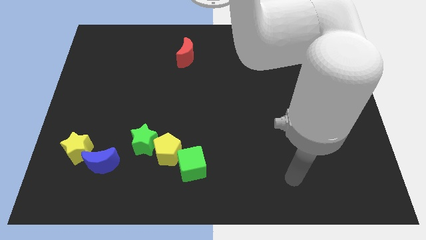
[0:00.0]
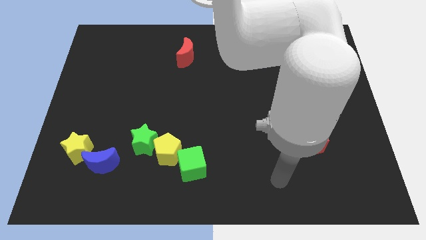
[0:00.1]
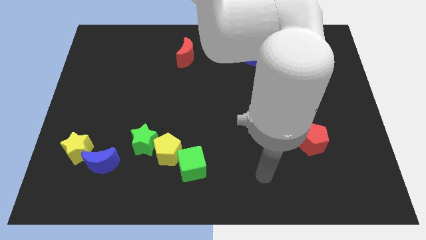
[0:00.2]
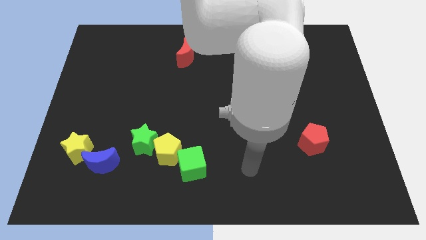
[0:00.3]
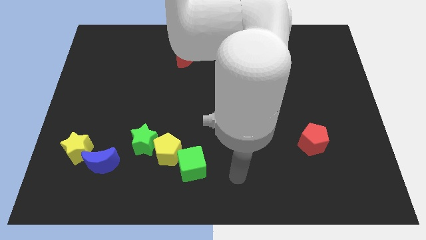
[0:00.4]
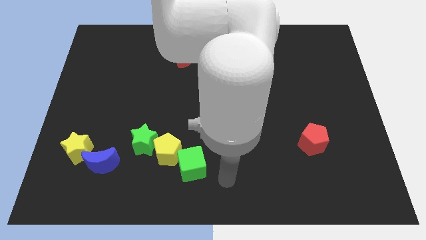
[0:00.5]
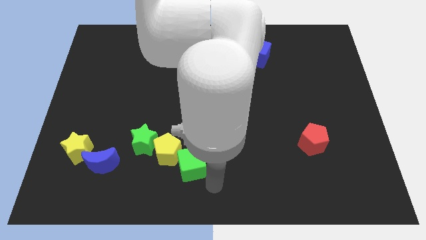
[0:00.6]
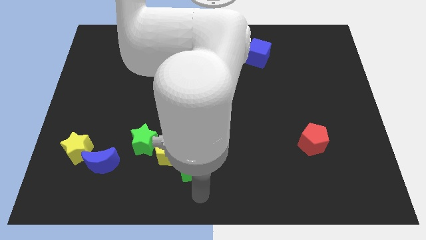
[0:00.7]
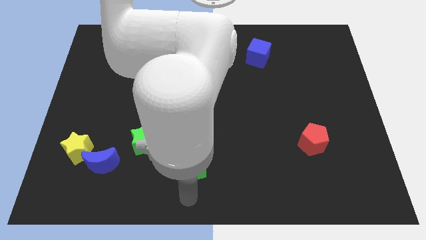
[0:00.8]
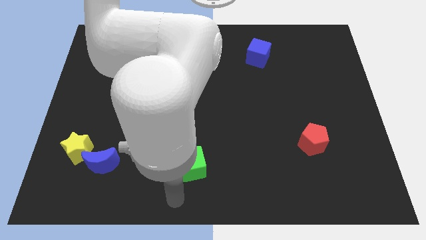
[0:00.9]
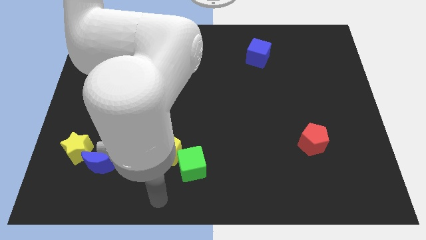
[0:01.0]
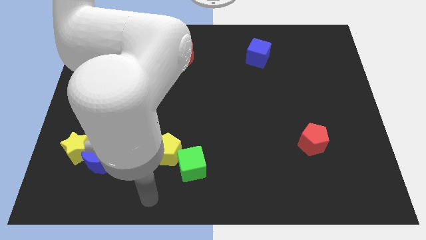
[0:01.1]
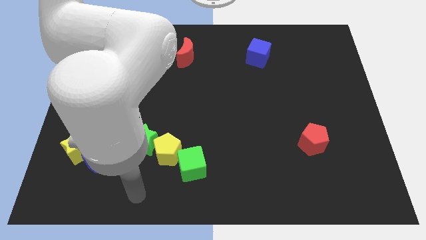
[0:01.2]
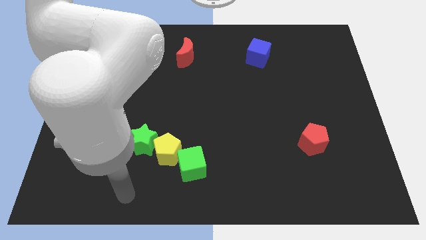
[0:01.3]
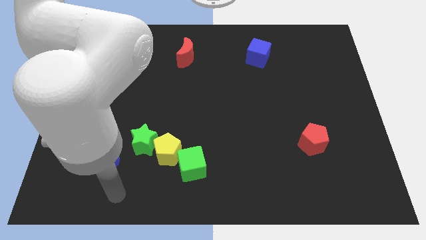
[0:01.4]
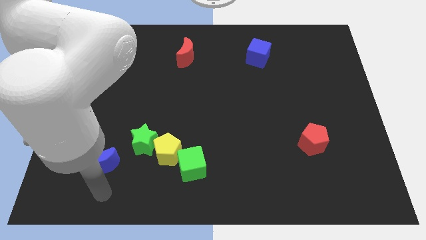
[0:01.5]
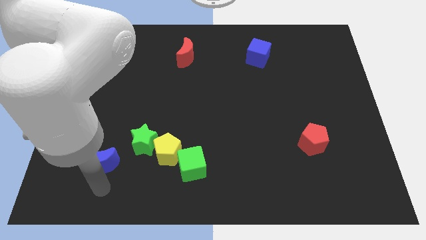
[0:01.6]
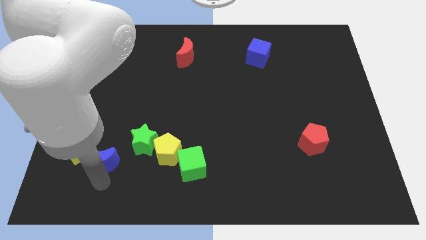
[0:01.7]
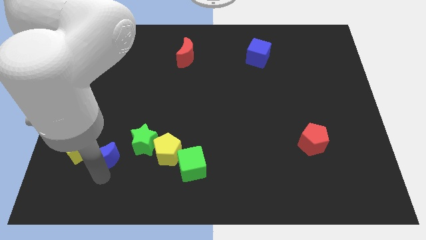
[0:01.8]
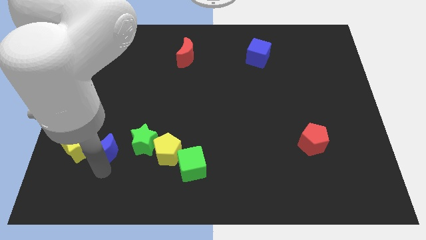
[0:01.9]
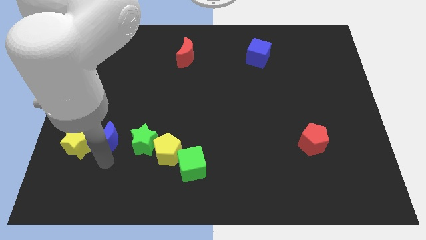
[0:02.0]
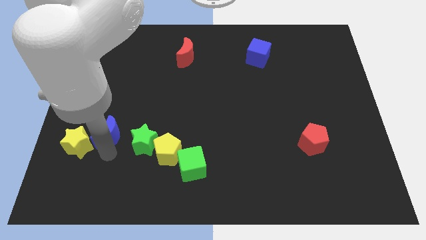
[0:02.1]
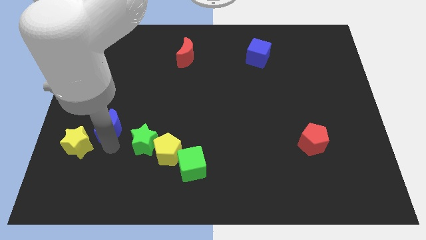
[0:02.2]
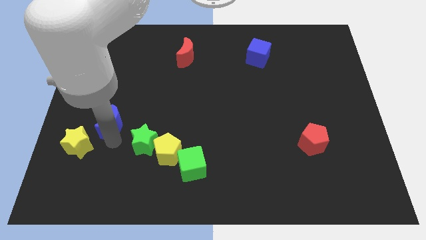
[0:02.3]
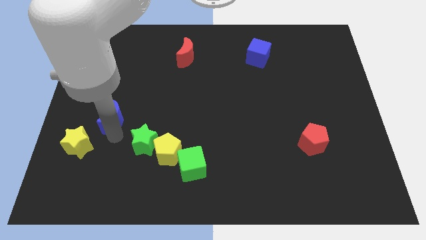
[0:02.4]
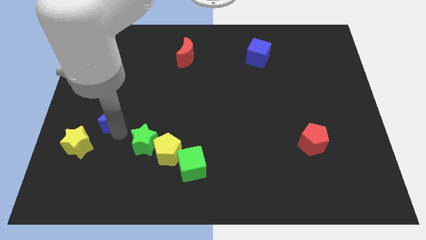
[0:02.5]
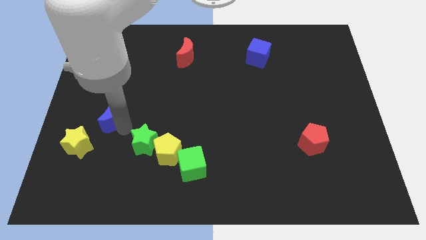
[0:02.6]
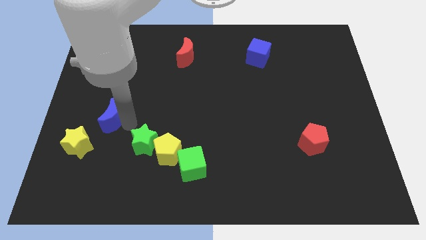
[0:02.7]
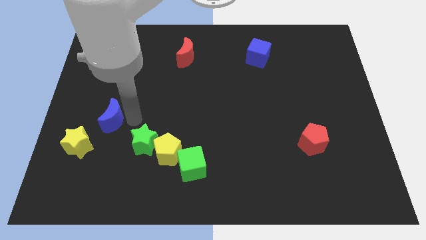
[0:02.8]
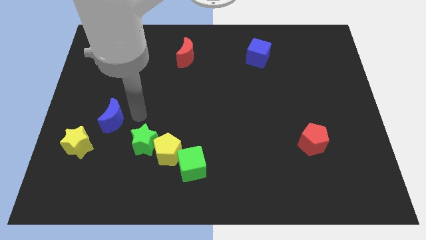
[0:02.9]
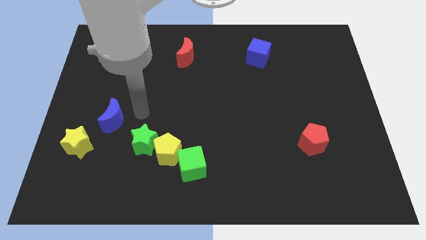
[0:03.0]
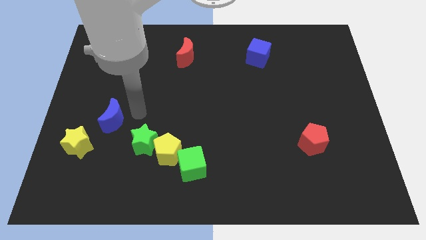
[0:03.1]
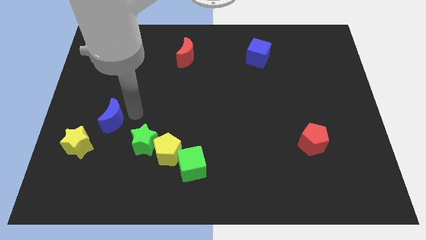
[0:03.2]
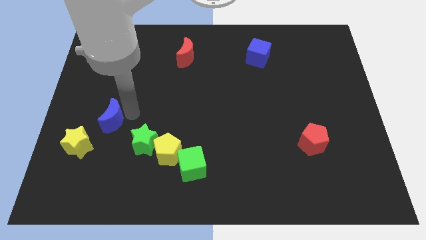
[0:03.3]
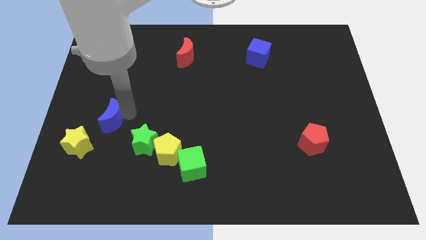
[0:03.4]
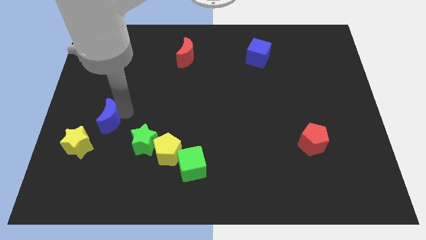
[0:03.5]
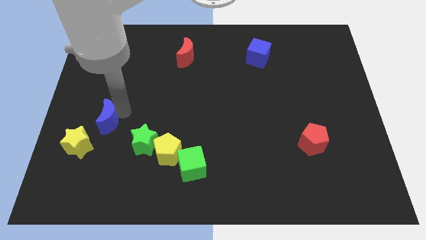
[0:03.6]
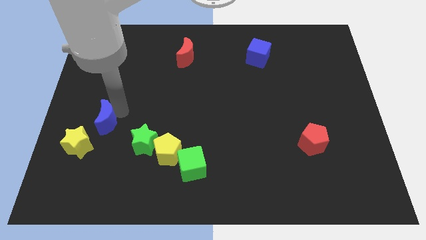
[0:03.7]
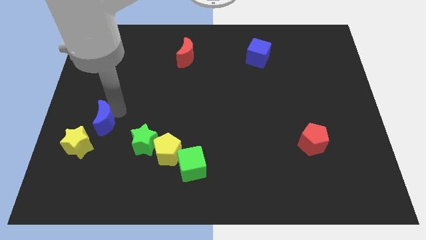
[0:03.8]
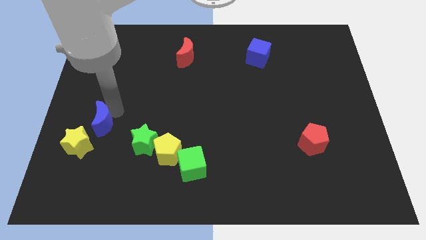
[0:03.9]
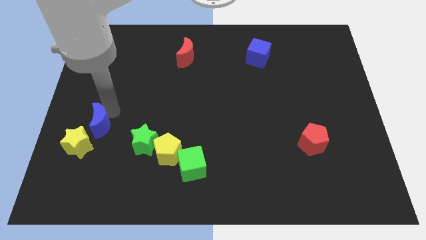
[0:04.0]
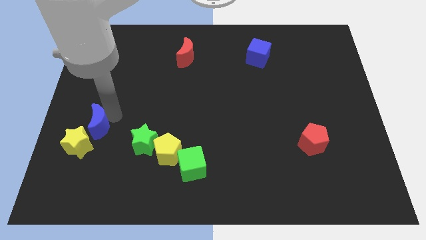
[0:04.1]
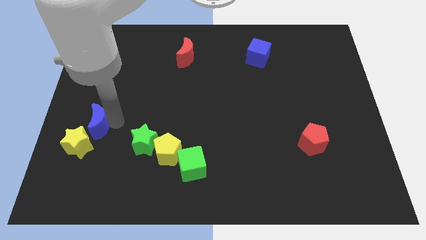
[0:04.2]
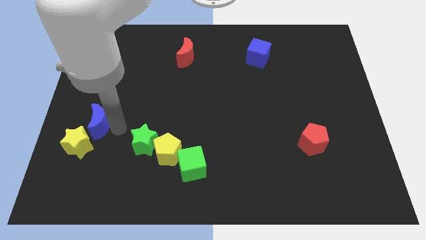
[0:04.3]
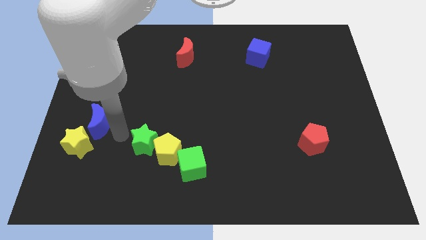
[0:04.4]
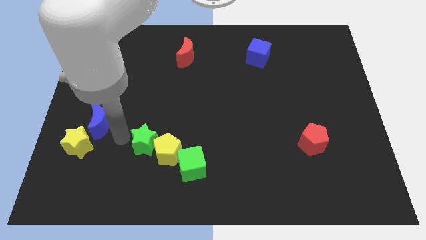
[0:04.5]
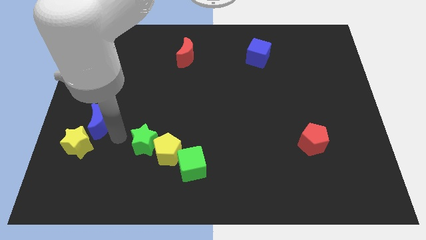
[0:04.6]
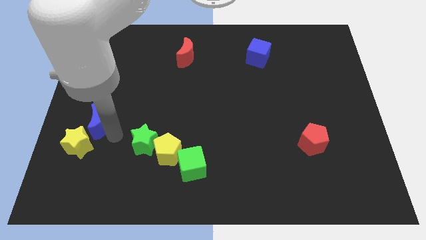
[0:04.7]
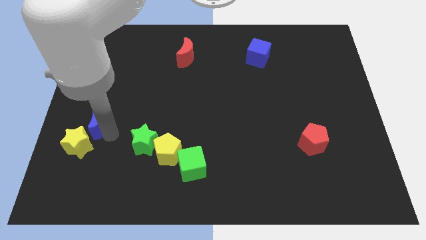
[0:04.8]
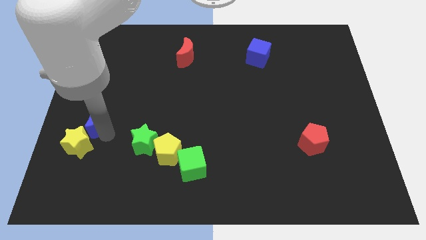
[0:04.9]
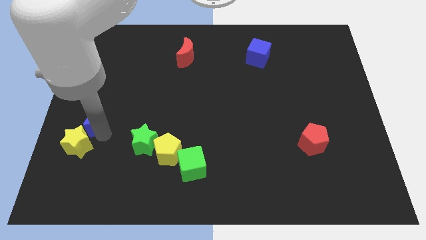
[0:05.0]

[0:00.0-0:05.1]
slide the blue moon to the center left

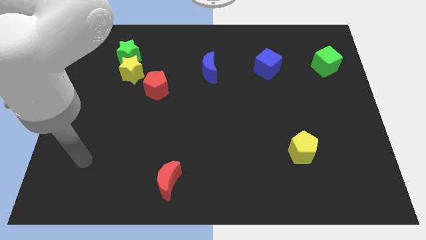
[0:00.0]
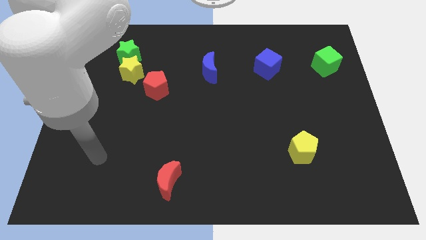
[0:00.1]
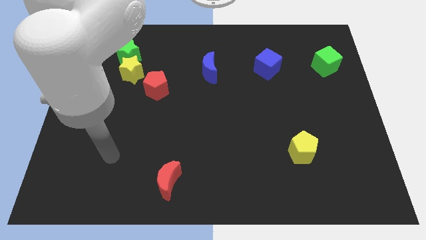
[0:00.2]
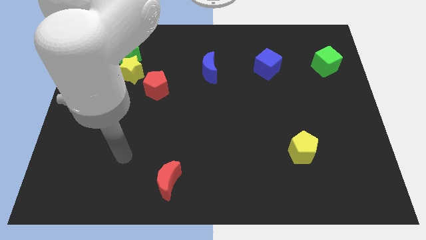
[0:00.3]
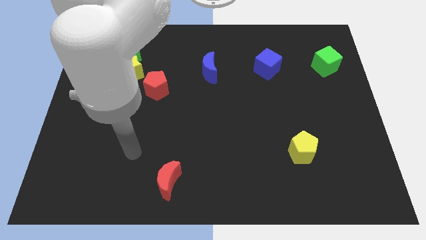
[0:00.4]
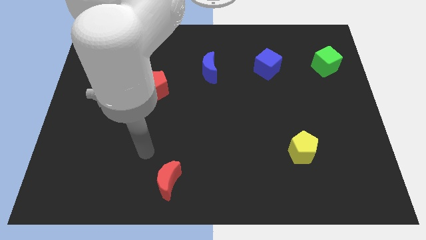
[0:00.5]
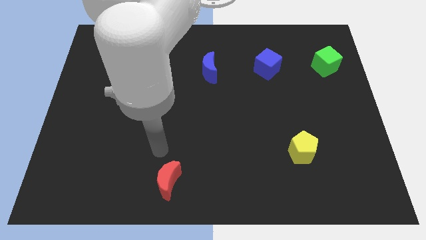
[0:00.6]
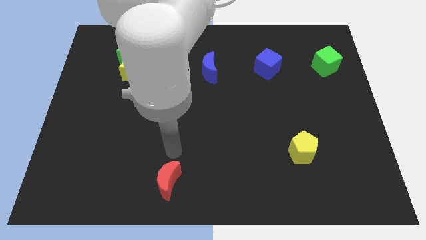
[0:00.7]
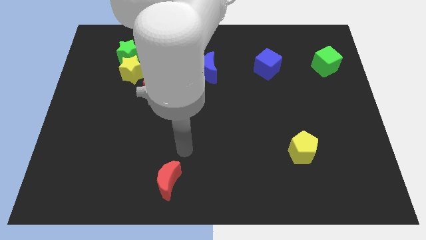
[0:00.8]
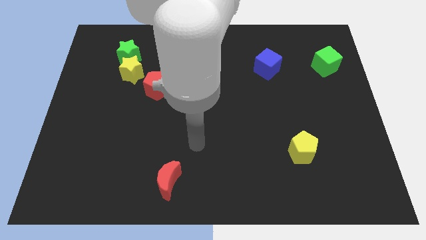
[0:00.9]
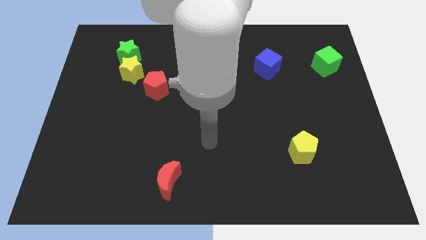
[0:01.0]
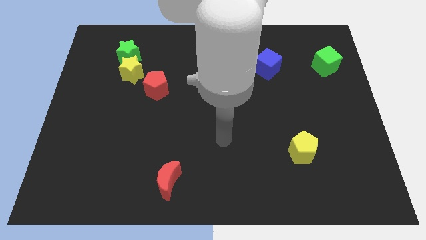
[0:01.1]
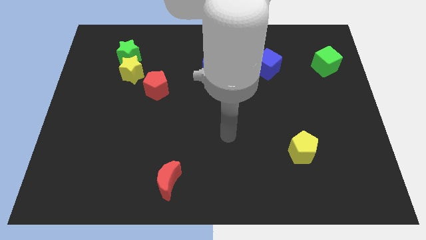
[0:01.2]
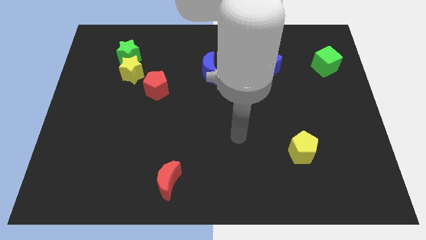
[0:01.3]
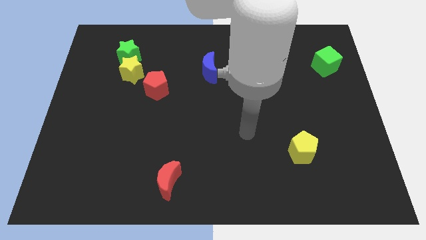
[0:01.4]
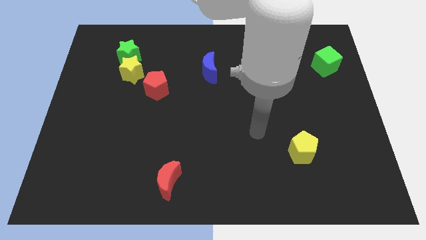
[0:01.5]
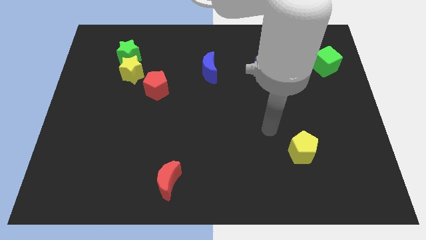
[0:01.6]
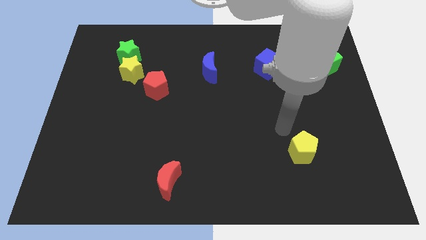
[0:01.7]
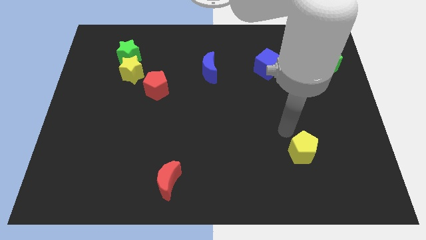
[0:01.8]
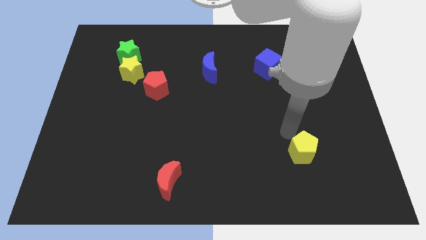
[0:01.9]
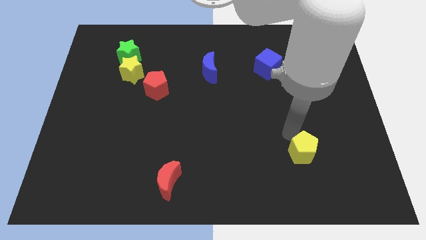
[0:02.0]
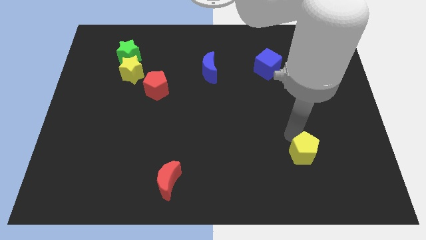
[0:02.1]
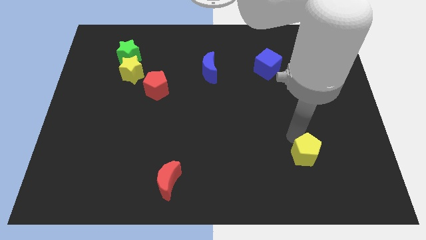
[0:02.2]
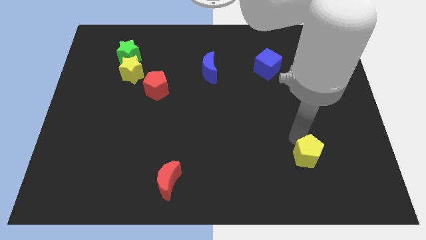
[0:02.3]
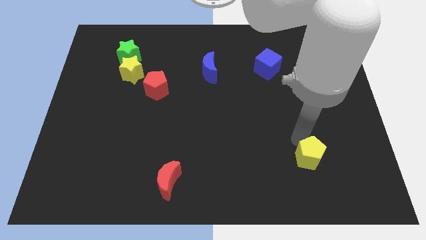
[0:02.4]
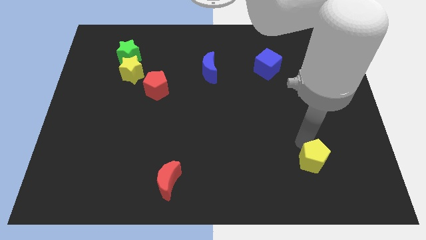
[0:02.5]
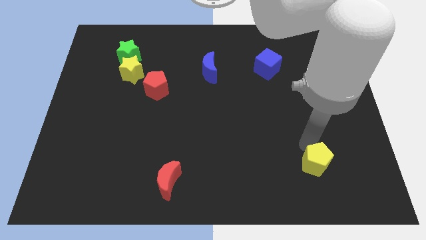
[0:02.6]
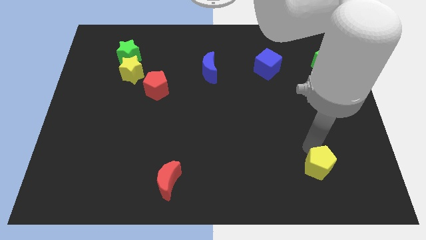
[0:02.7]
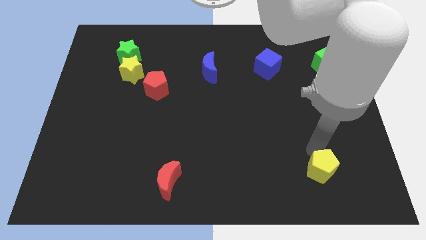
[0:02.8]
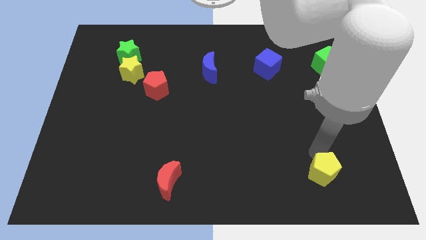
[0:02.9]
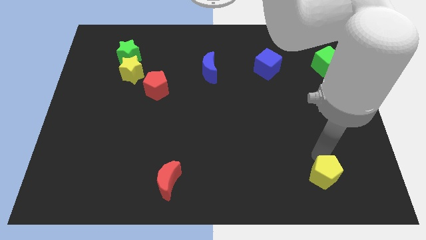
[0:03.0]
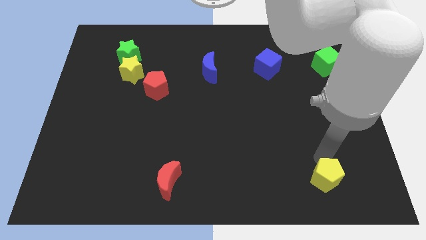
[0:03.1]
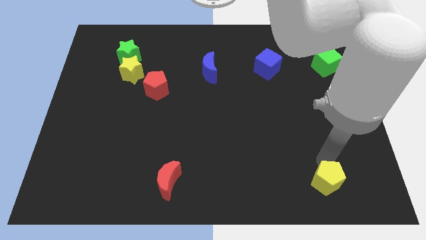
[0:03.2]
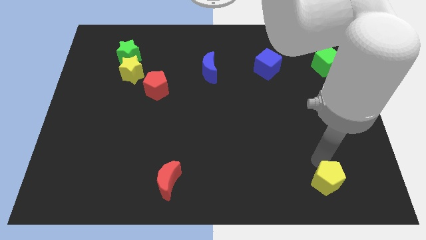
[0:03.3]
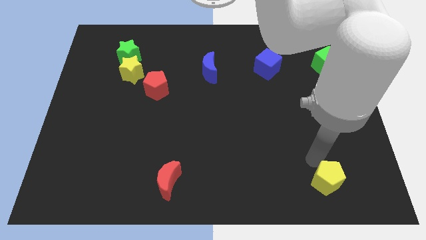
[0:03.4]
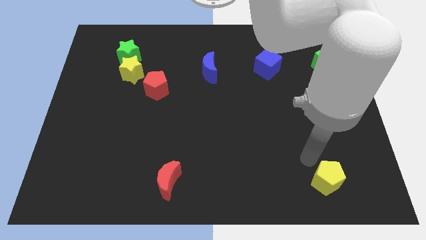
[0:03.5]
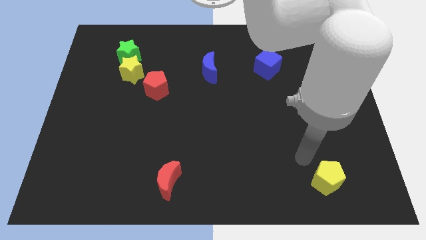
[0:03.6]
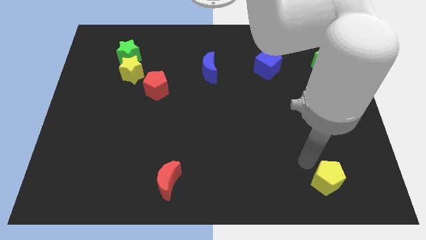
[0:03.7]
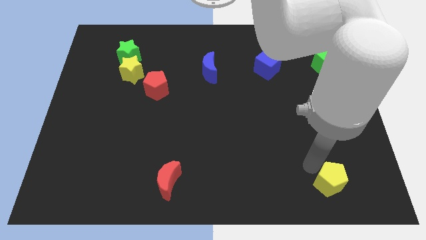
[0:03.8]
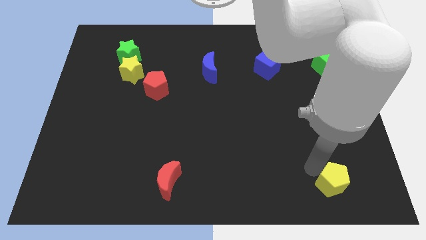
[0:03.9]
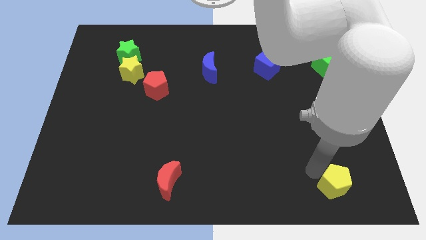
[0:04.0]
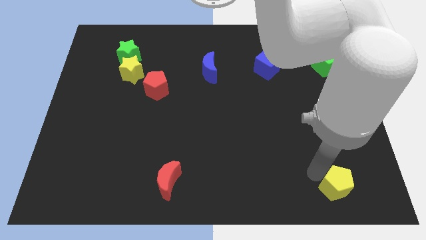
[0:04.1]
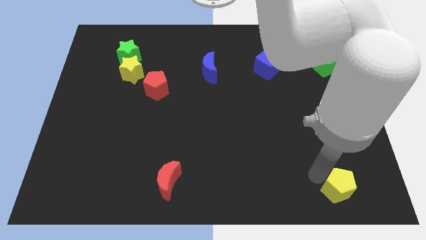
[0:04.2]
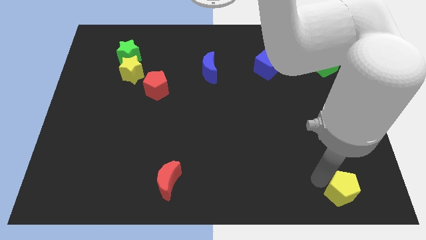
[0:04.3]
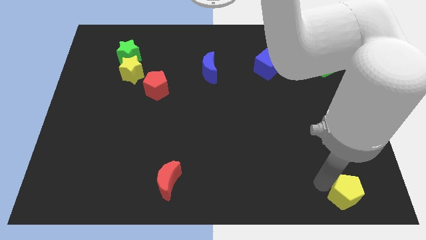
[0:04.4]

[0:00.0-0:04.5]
push the yellow pentagon to the bottom right of the board
